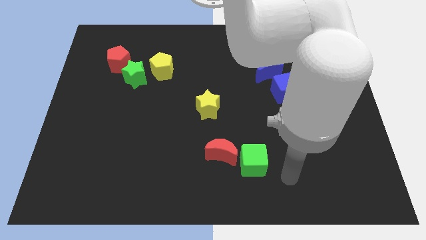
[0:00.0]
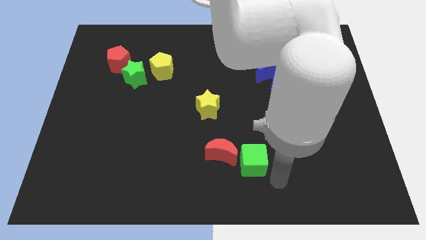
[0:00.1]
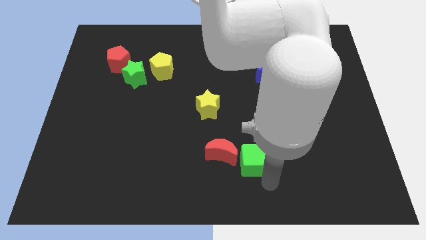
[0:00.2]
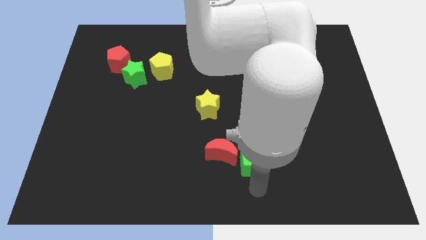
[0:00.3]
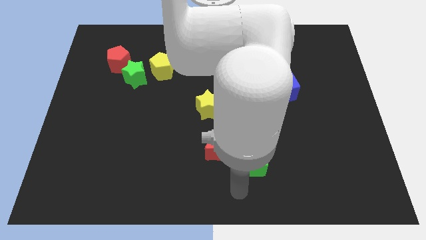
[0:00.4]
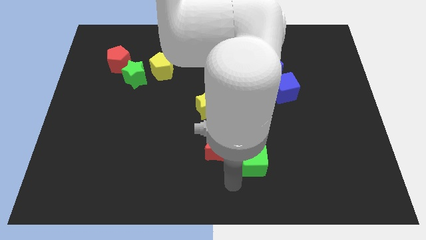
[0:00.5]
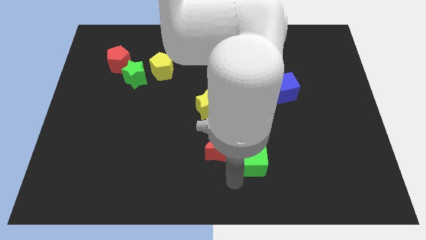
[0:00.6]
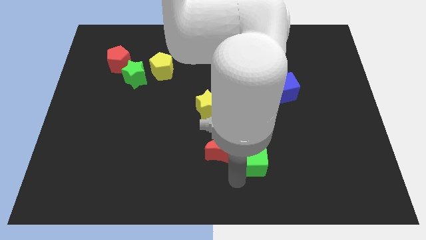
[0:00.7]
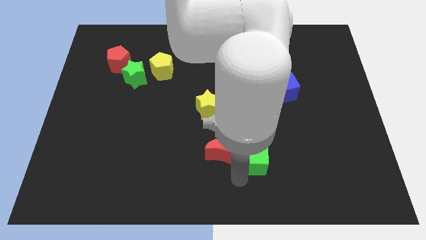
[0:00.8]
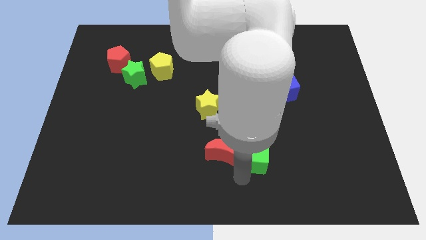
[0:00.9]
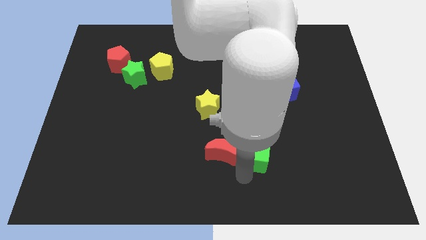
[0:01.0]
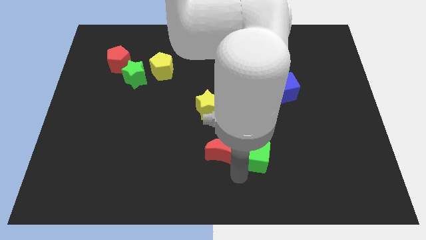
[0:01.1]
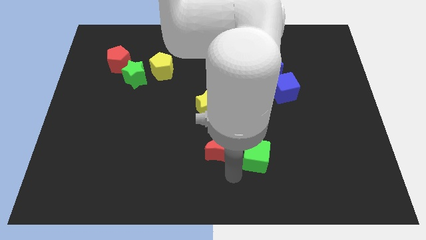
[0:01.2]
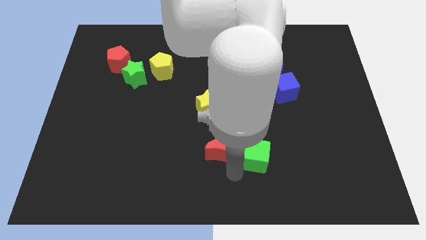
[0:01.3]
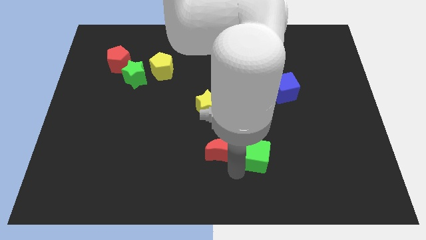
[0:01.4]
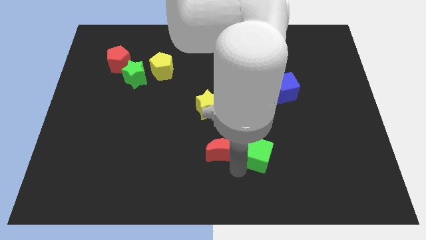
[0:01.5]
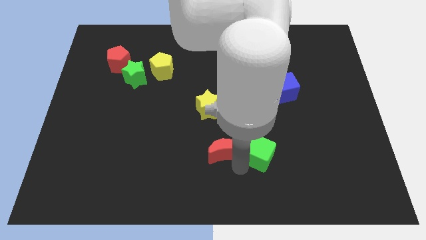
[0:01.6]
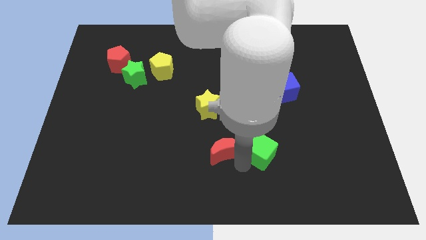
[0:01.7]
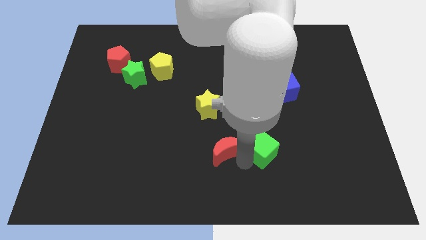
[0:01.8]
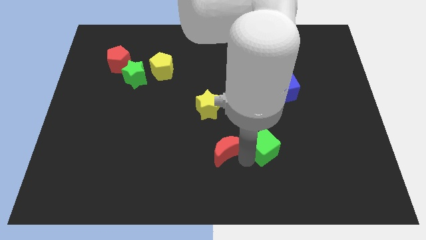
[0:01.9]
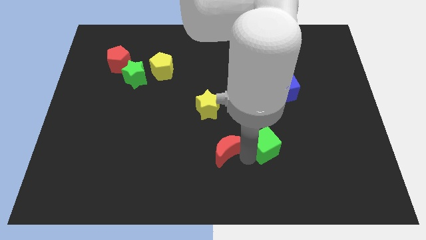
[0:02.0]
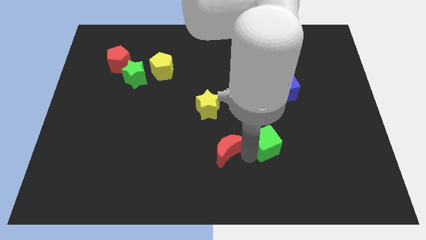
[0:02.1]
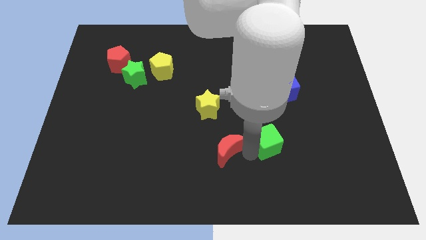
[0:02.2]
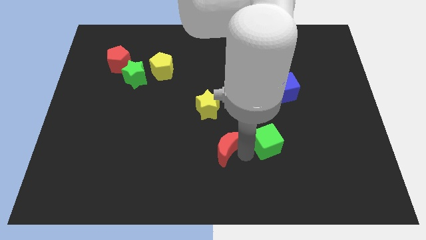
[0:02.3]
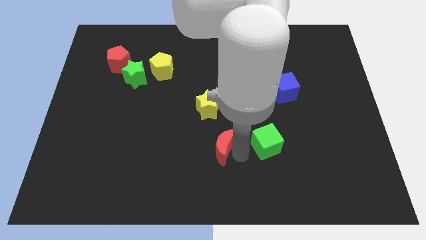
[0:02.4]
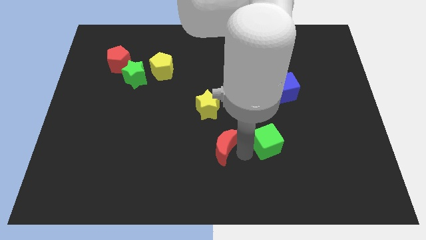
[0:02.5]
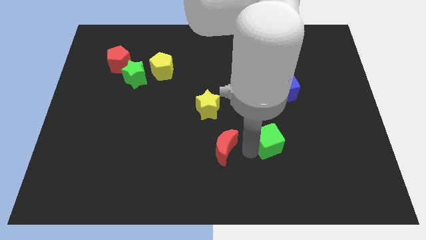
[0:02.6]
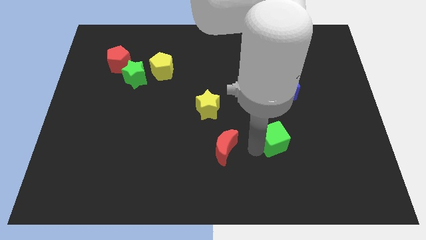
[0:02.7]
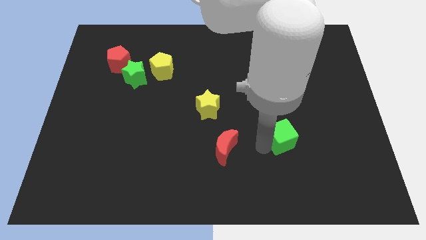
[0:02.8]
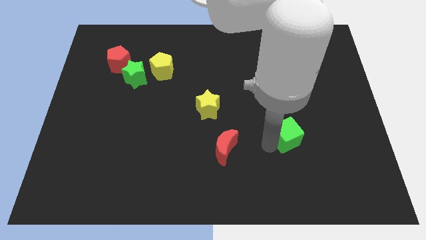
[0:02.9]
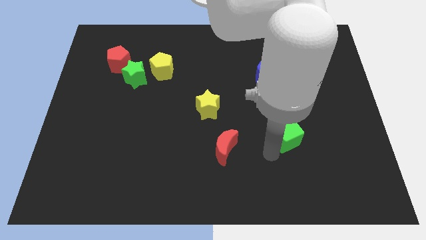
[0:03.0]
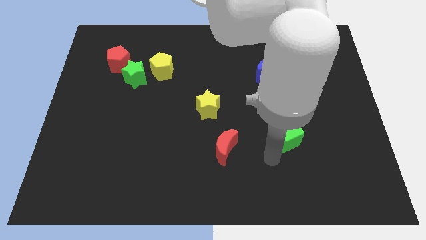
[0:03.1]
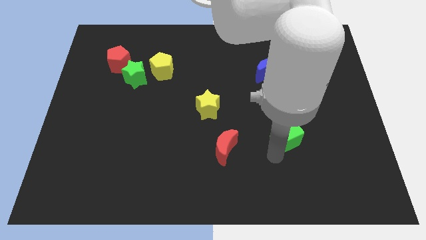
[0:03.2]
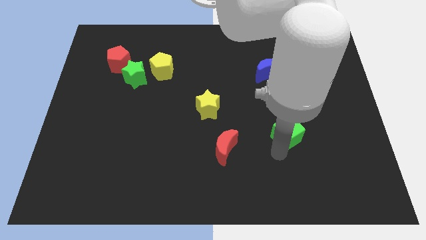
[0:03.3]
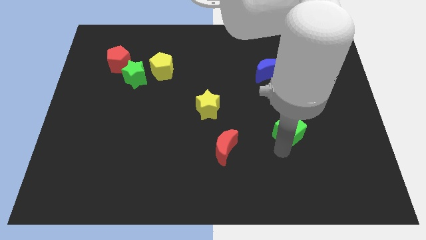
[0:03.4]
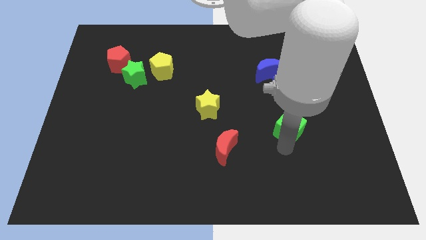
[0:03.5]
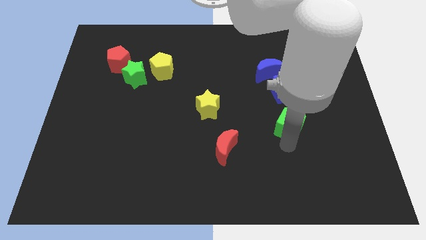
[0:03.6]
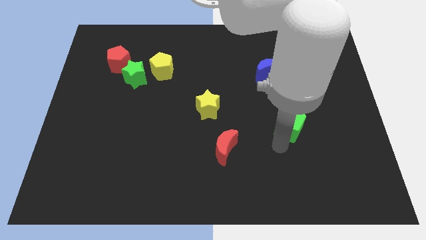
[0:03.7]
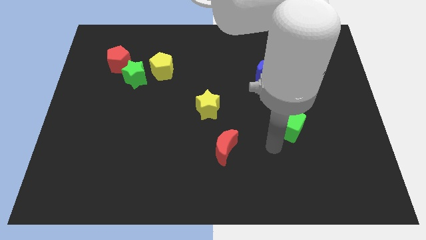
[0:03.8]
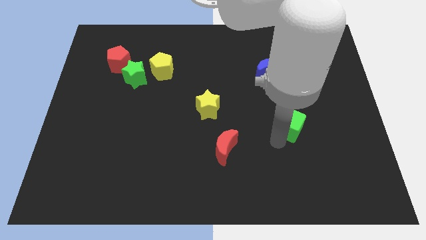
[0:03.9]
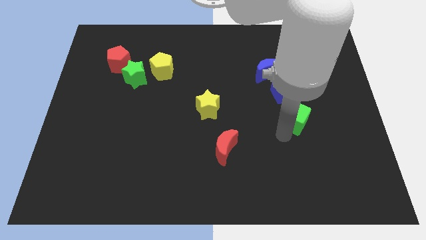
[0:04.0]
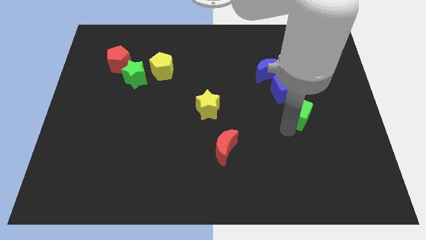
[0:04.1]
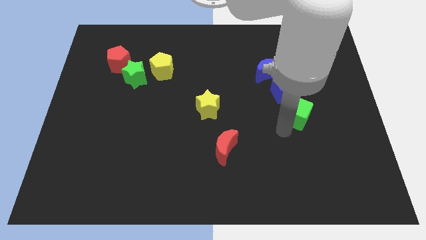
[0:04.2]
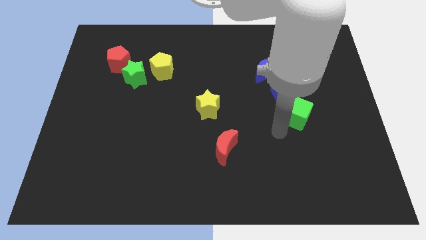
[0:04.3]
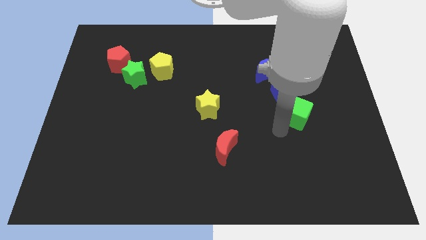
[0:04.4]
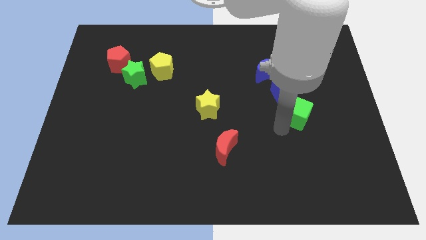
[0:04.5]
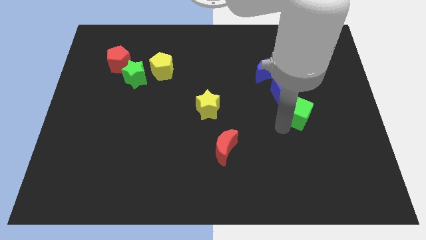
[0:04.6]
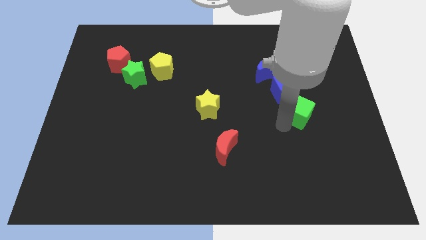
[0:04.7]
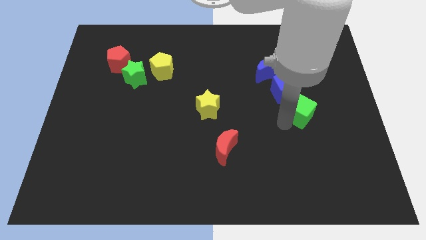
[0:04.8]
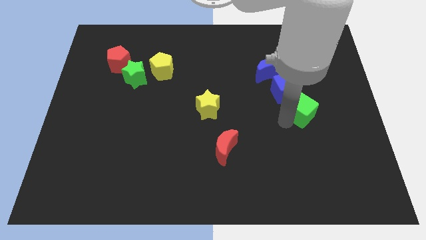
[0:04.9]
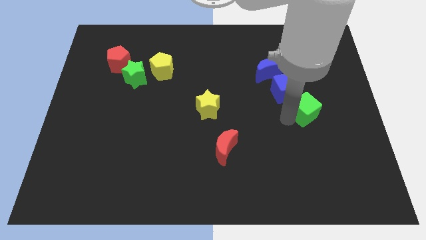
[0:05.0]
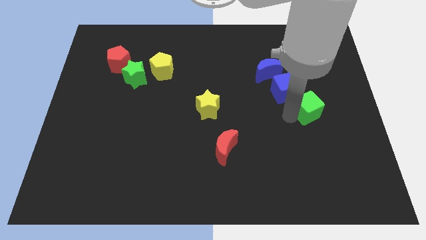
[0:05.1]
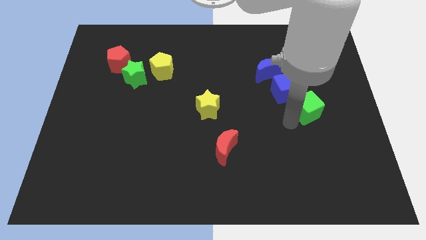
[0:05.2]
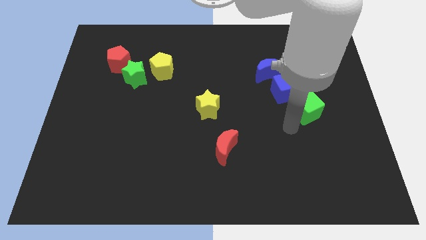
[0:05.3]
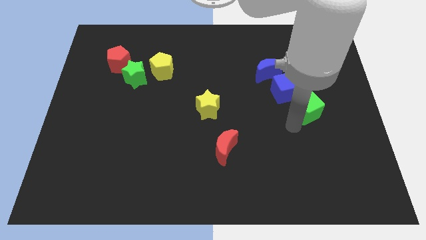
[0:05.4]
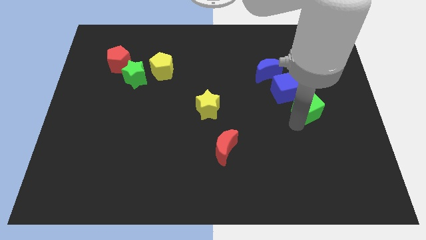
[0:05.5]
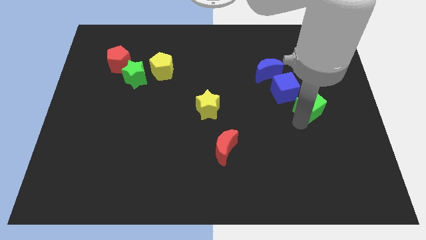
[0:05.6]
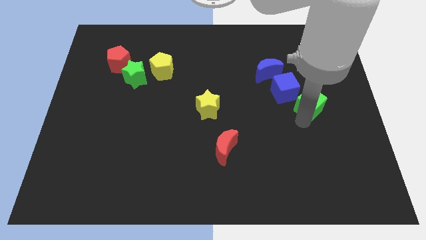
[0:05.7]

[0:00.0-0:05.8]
move the green cube to the right side of the blue cube
